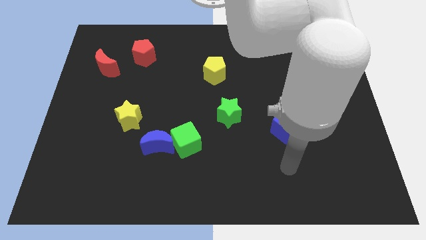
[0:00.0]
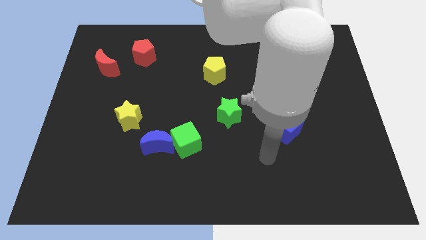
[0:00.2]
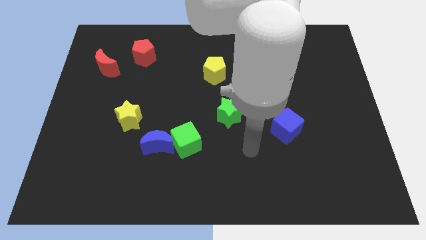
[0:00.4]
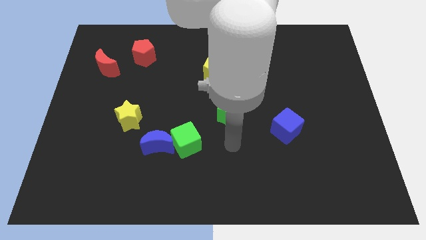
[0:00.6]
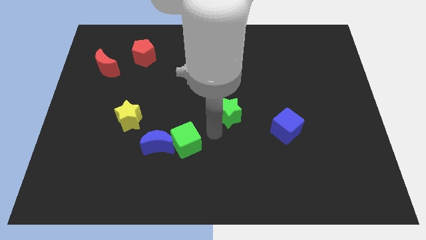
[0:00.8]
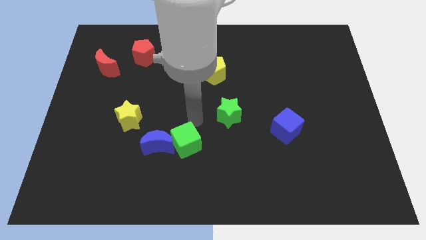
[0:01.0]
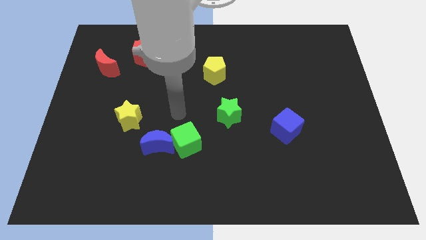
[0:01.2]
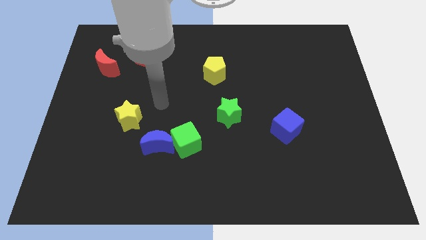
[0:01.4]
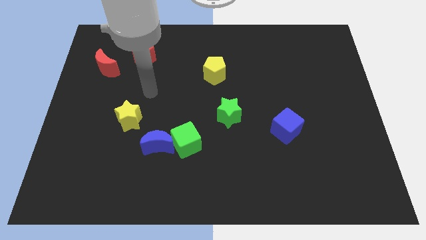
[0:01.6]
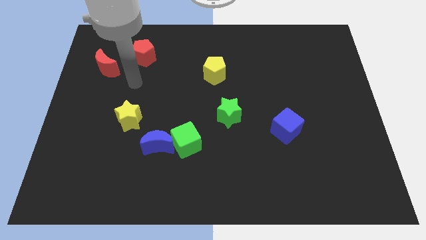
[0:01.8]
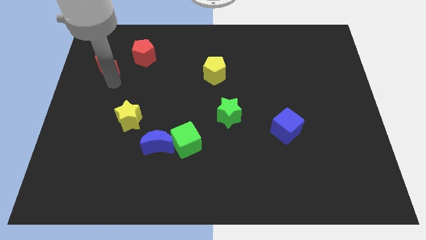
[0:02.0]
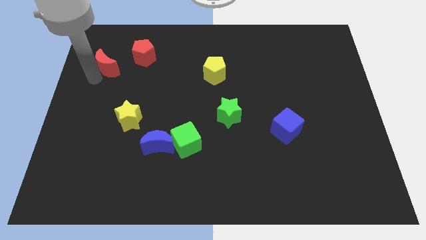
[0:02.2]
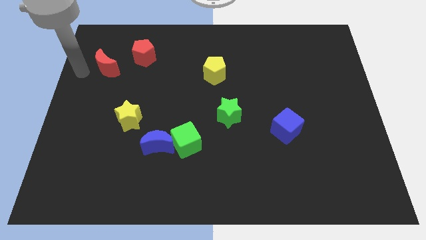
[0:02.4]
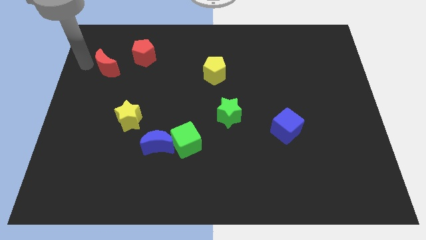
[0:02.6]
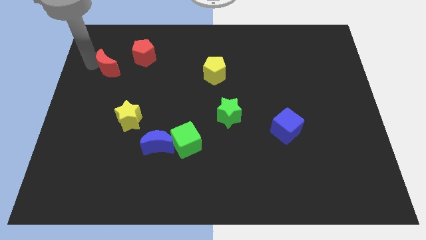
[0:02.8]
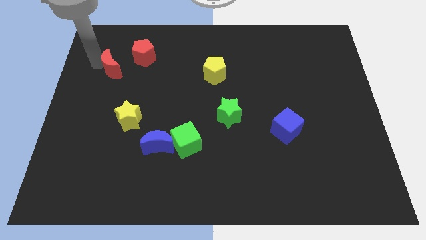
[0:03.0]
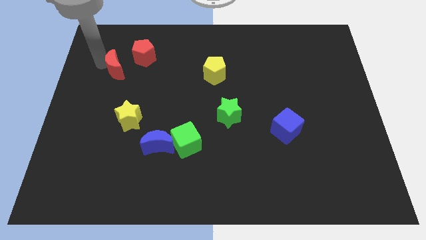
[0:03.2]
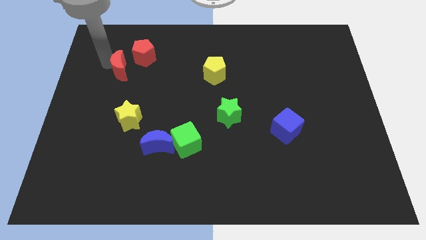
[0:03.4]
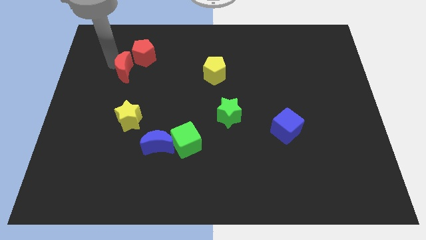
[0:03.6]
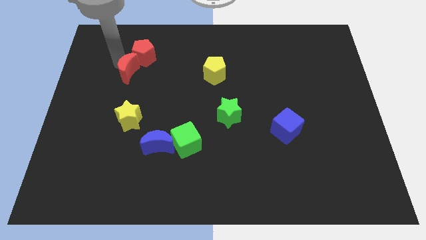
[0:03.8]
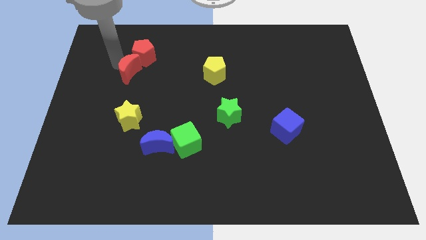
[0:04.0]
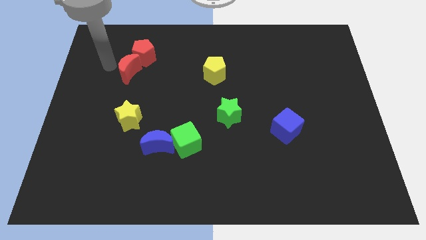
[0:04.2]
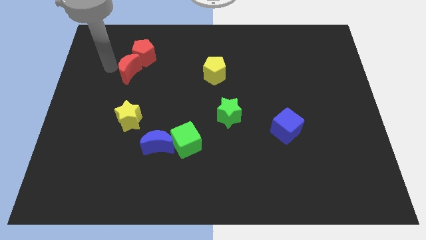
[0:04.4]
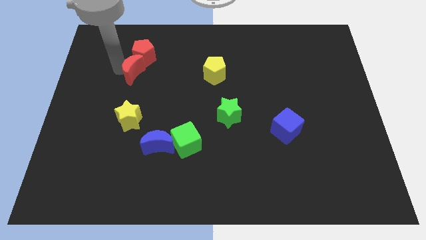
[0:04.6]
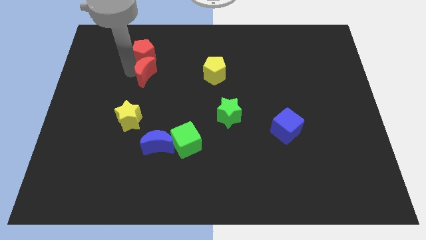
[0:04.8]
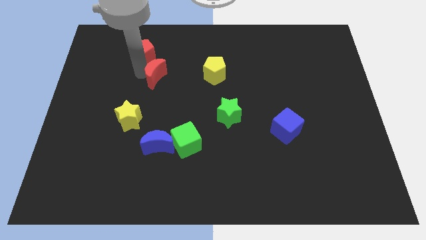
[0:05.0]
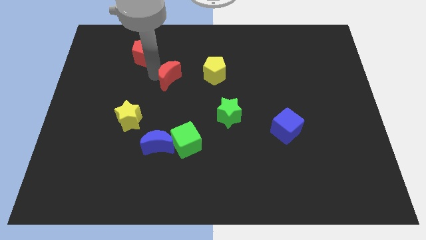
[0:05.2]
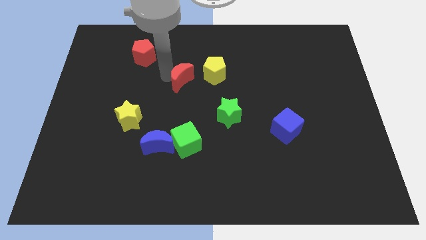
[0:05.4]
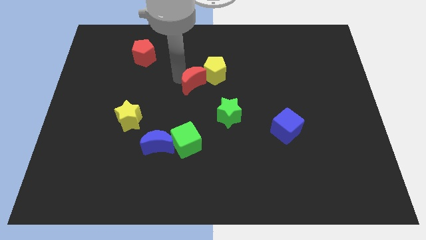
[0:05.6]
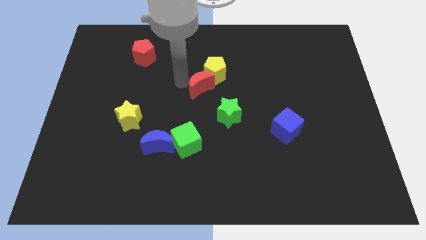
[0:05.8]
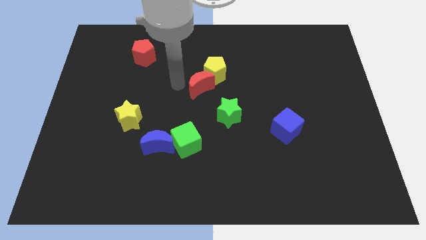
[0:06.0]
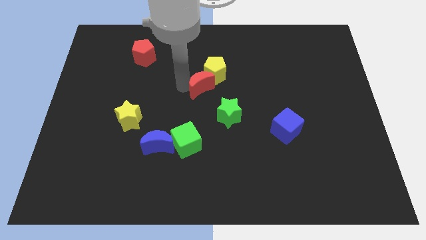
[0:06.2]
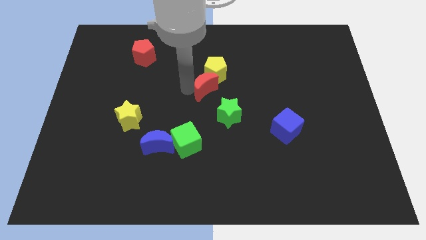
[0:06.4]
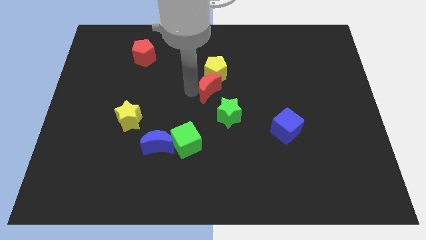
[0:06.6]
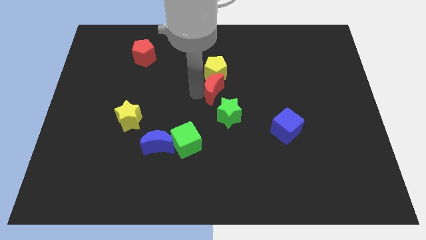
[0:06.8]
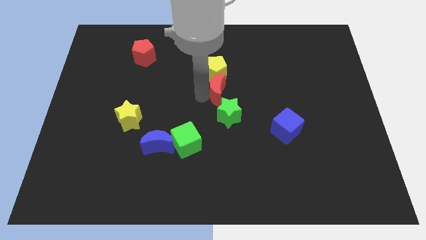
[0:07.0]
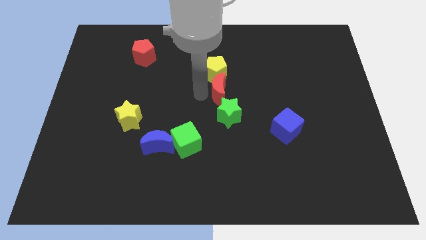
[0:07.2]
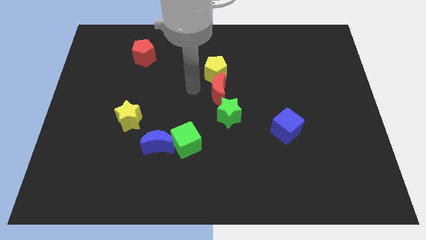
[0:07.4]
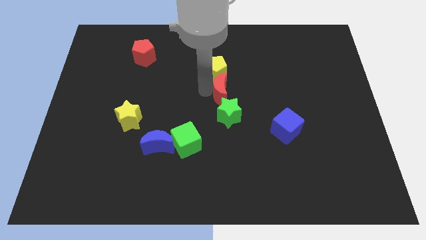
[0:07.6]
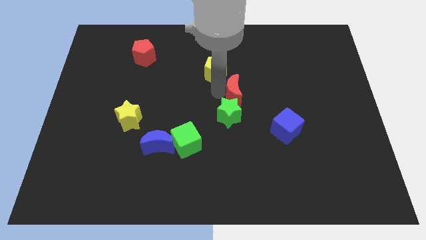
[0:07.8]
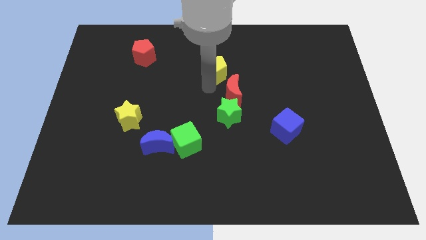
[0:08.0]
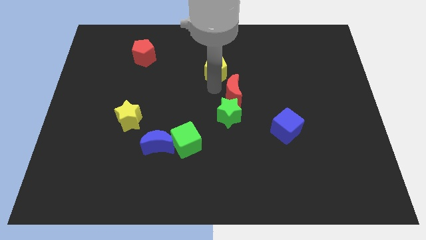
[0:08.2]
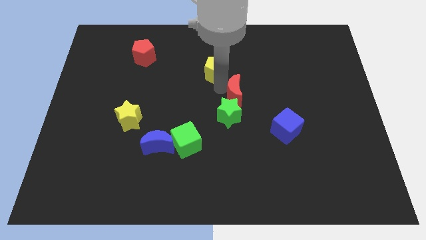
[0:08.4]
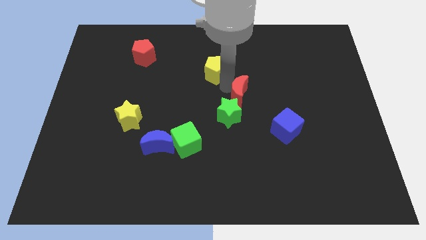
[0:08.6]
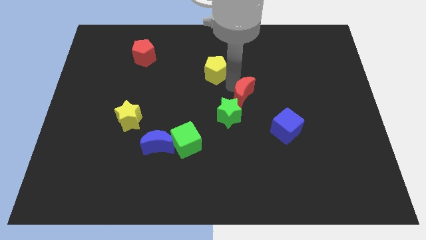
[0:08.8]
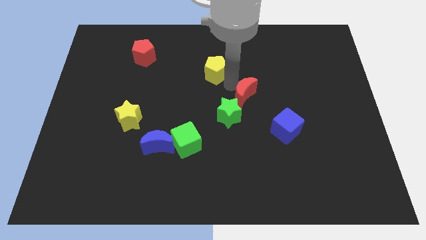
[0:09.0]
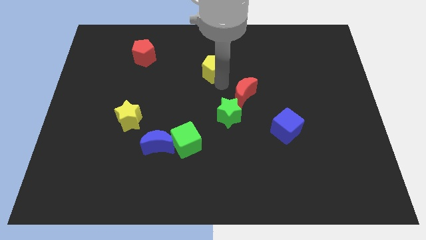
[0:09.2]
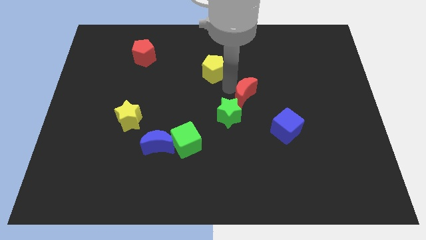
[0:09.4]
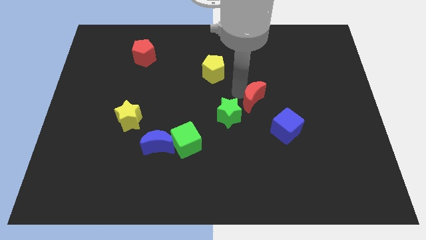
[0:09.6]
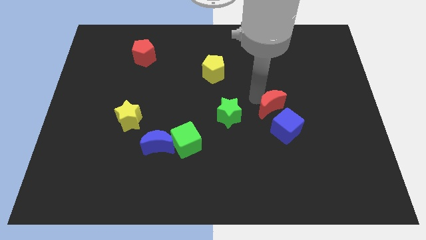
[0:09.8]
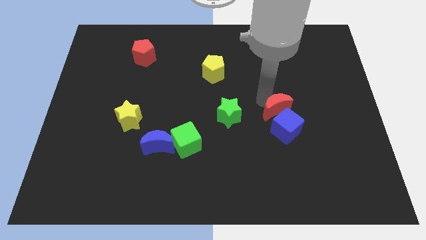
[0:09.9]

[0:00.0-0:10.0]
put the red moon towards the blue cube

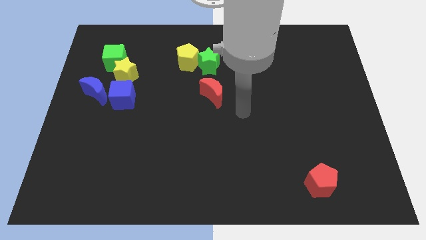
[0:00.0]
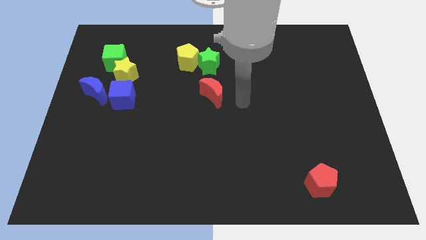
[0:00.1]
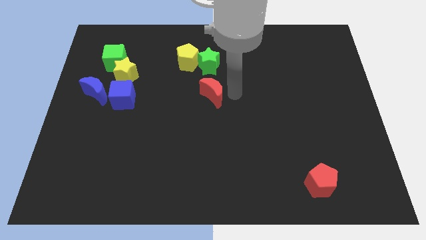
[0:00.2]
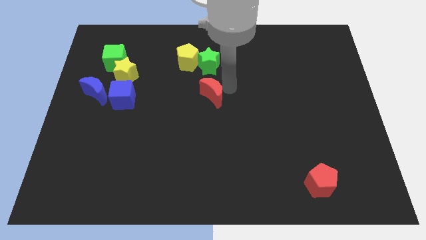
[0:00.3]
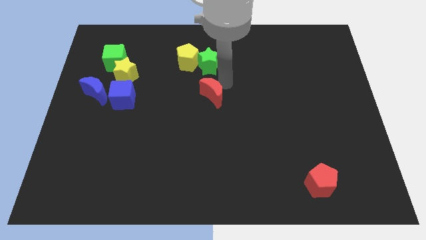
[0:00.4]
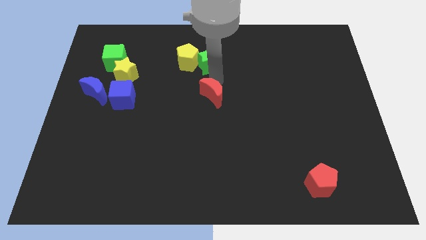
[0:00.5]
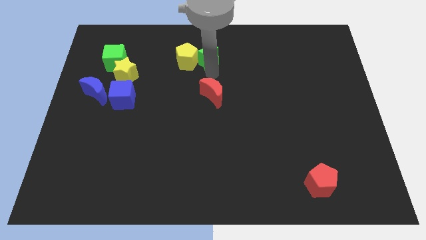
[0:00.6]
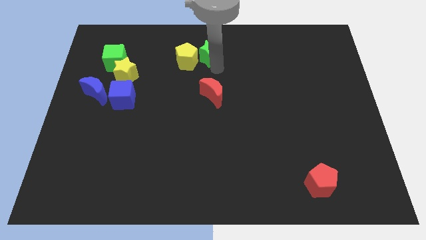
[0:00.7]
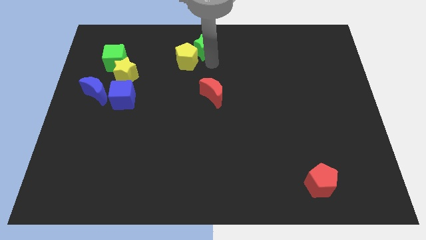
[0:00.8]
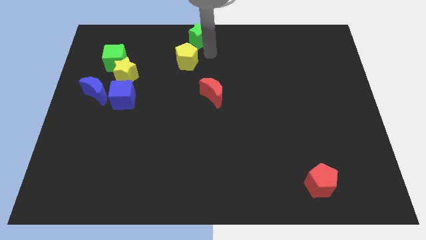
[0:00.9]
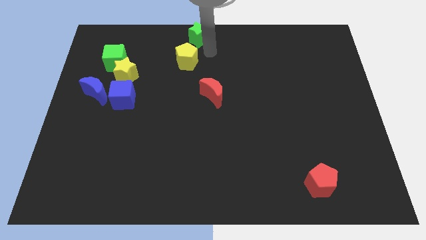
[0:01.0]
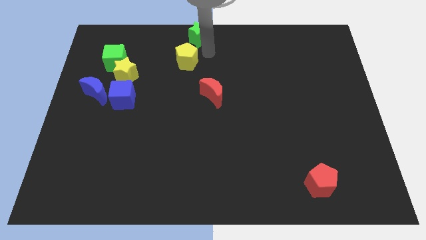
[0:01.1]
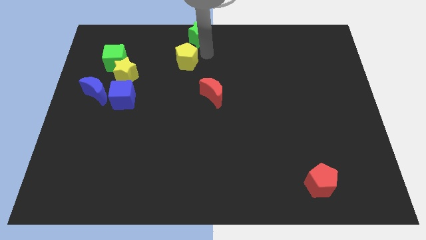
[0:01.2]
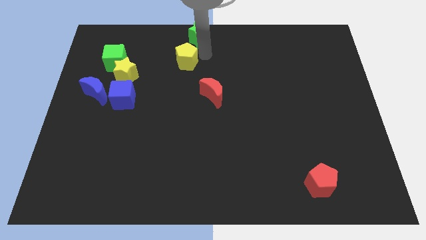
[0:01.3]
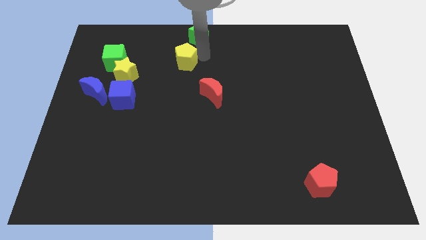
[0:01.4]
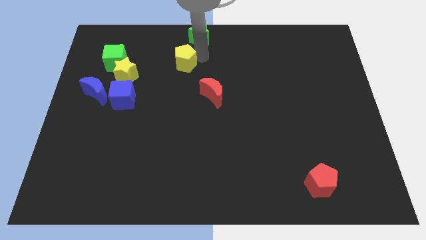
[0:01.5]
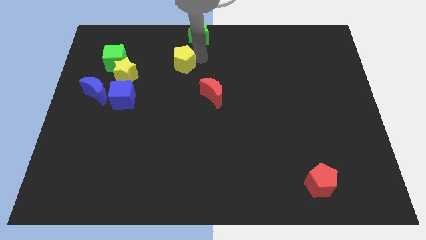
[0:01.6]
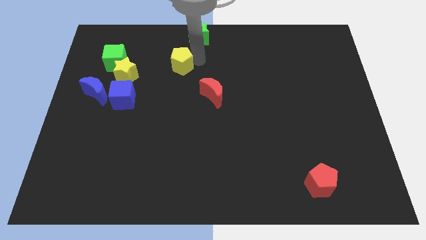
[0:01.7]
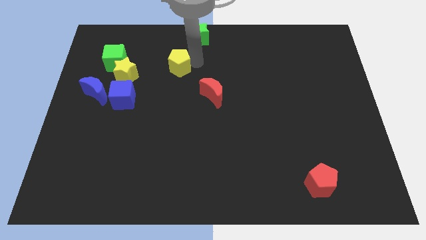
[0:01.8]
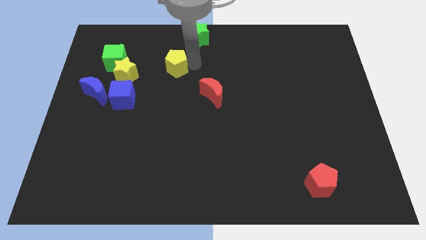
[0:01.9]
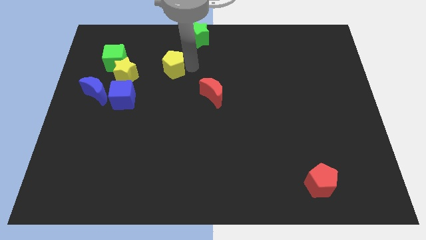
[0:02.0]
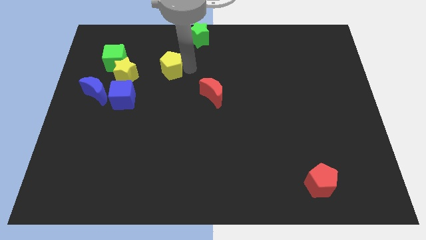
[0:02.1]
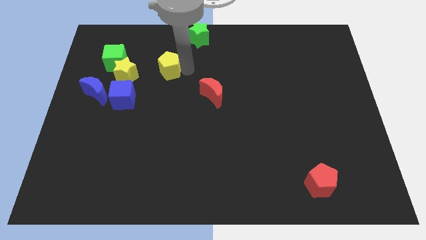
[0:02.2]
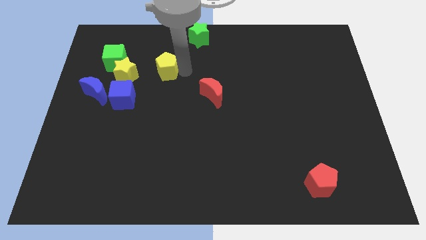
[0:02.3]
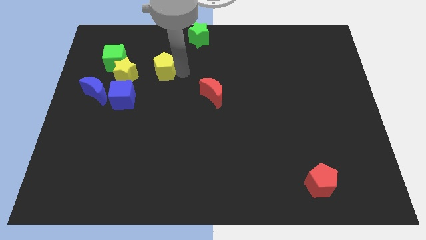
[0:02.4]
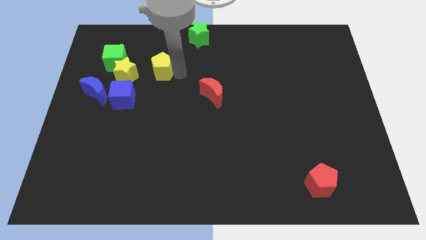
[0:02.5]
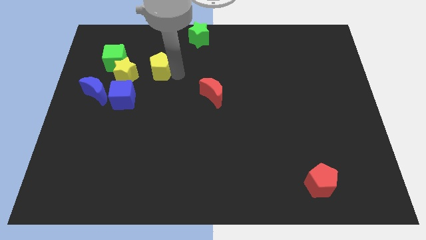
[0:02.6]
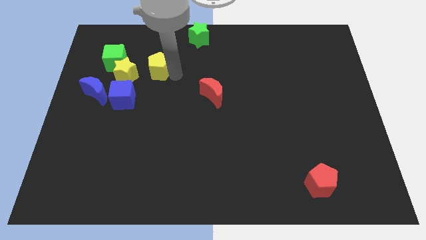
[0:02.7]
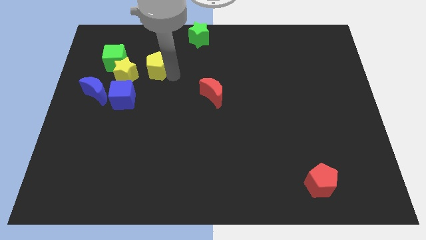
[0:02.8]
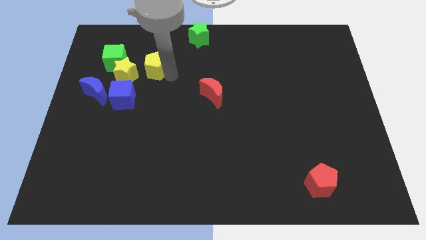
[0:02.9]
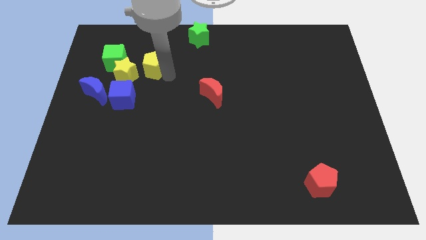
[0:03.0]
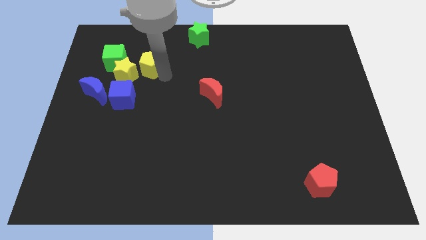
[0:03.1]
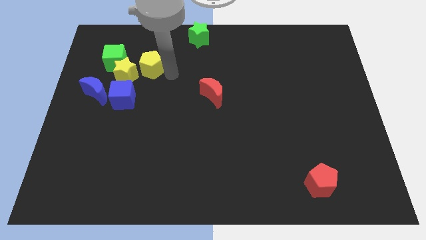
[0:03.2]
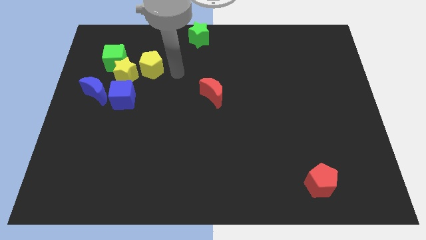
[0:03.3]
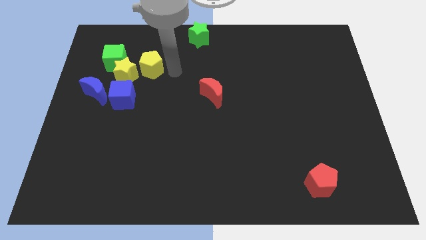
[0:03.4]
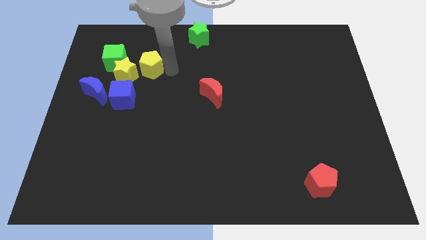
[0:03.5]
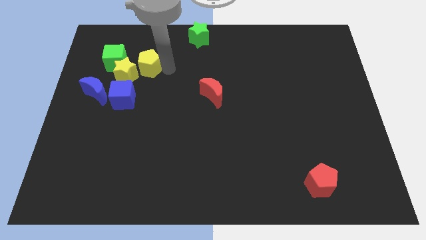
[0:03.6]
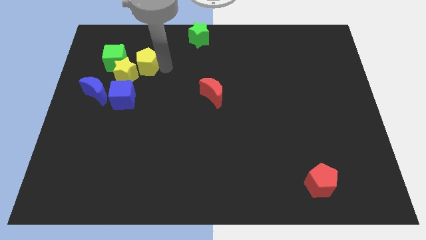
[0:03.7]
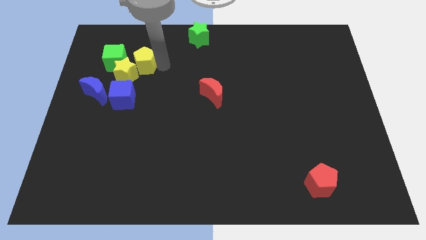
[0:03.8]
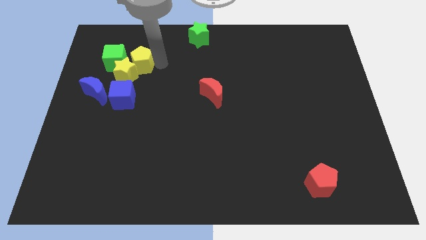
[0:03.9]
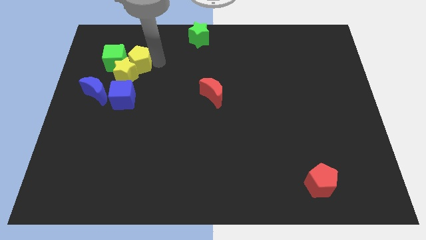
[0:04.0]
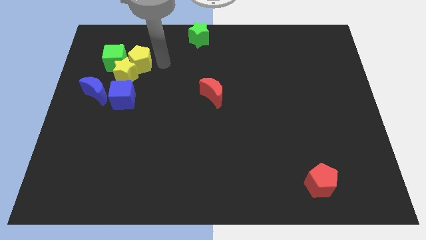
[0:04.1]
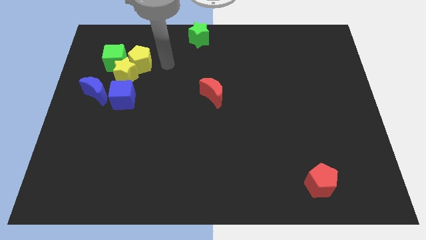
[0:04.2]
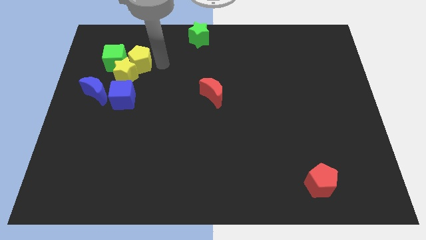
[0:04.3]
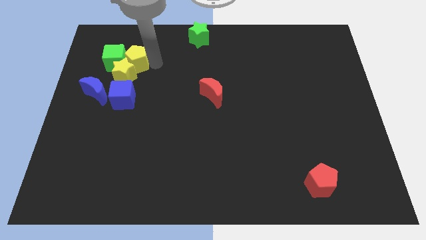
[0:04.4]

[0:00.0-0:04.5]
move the yellow pentagon next to the green cube
